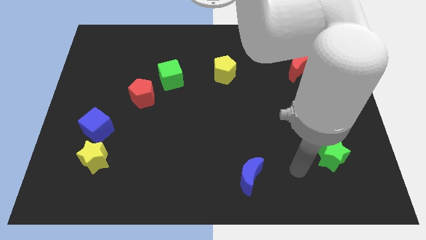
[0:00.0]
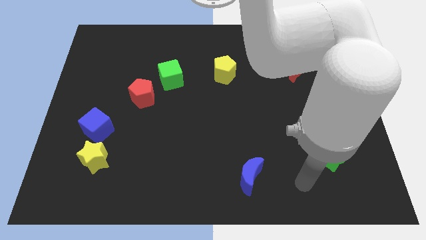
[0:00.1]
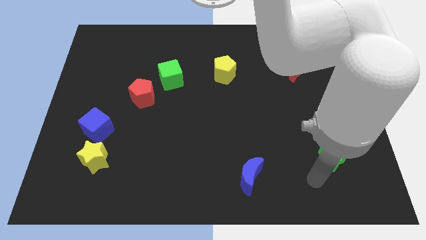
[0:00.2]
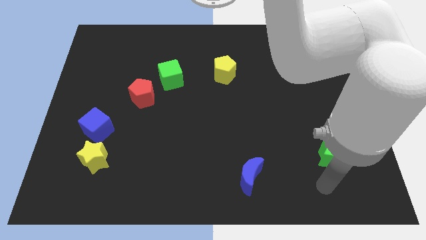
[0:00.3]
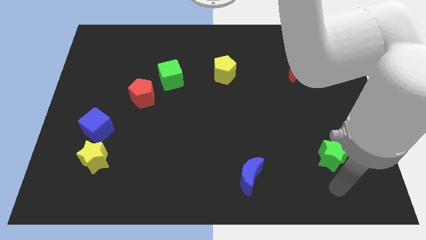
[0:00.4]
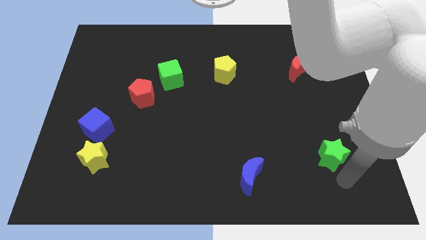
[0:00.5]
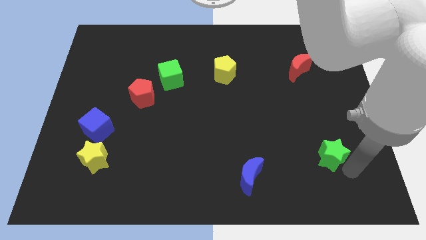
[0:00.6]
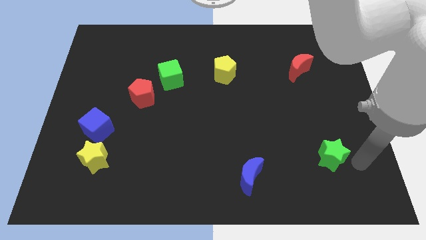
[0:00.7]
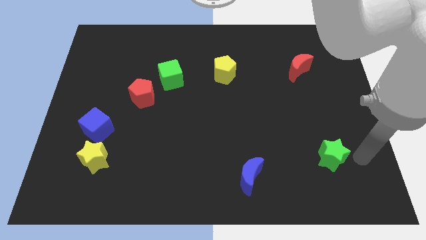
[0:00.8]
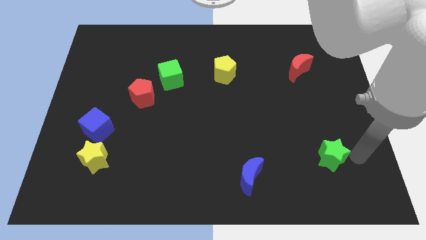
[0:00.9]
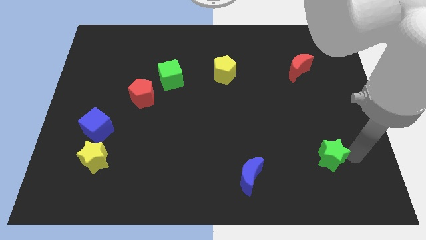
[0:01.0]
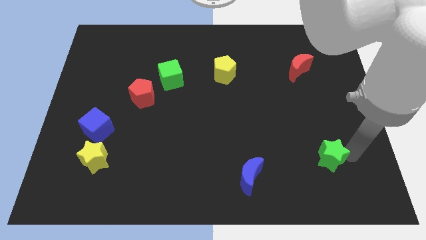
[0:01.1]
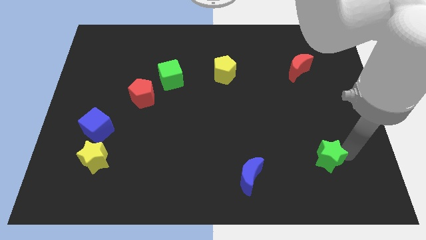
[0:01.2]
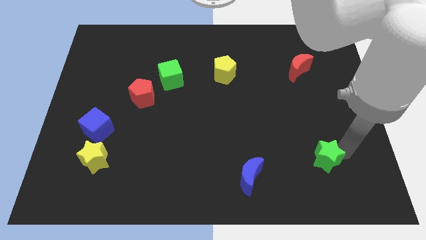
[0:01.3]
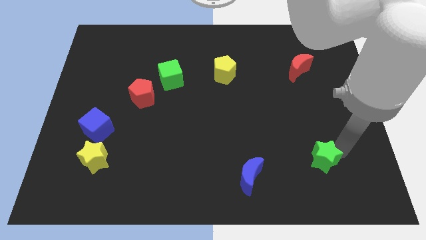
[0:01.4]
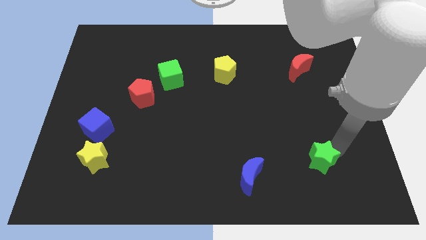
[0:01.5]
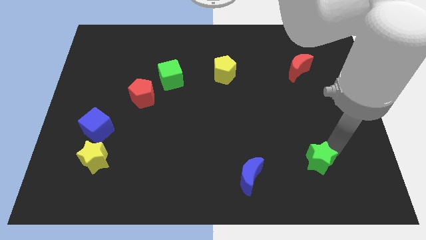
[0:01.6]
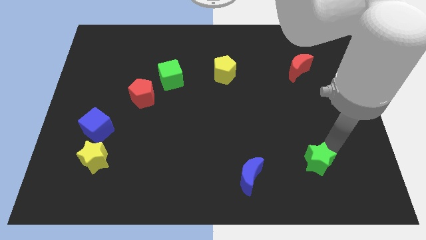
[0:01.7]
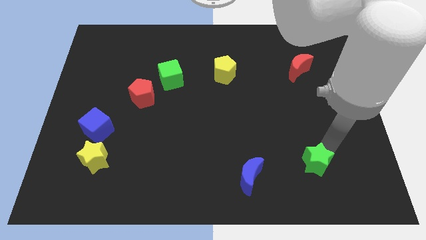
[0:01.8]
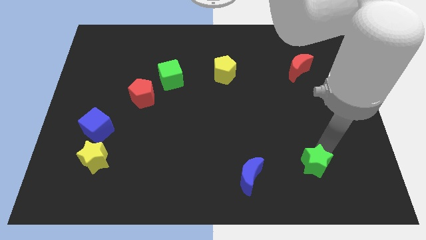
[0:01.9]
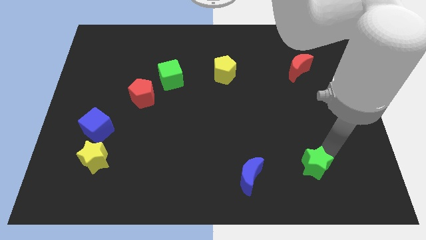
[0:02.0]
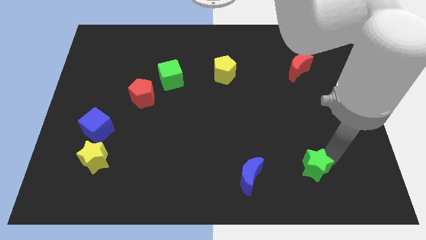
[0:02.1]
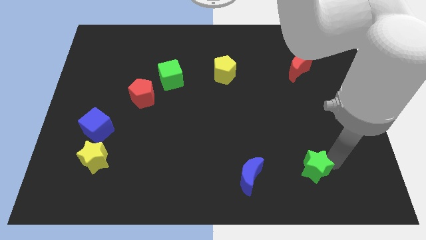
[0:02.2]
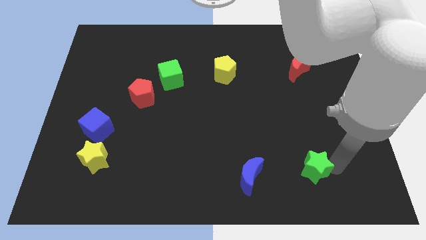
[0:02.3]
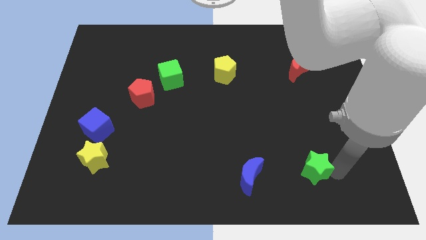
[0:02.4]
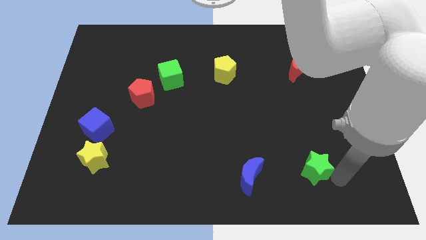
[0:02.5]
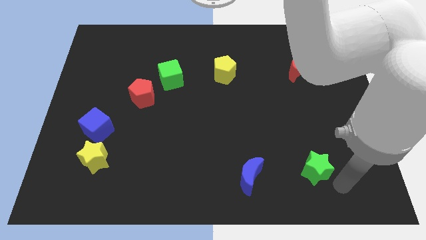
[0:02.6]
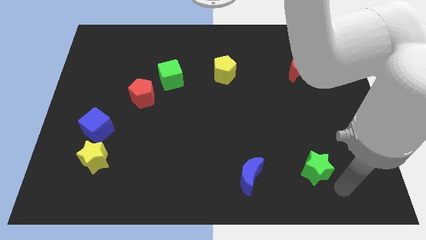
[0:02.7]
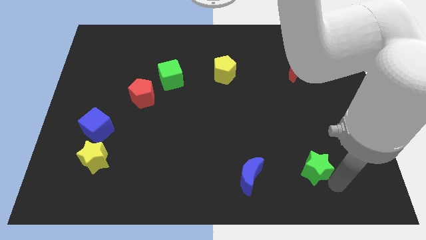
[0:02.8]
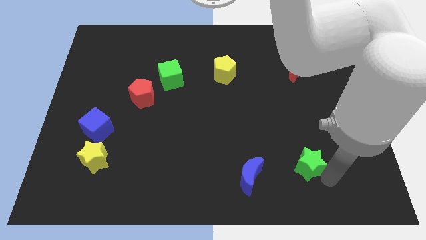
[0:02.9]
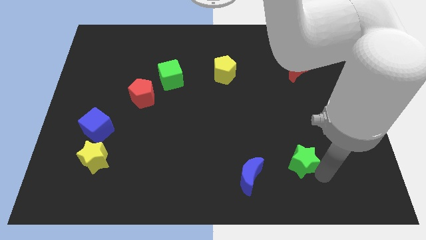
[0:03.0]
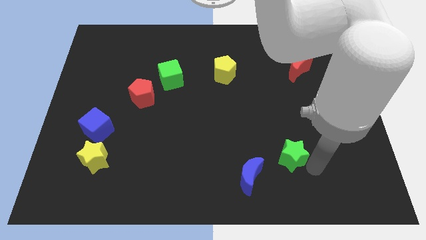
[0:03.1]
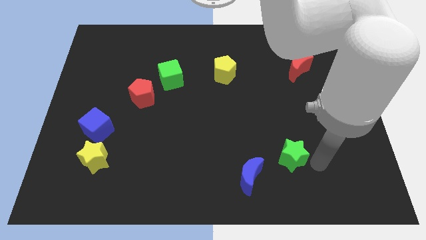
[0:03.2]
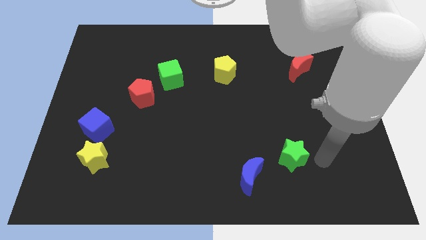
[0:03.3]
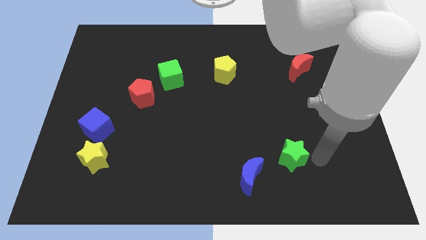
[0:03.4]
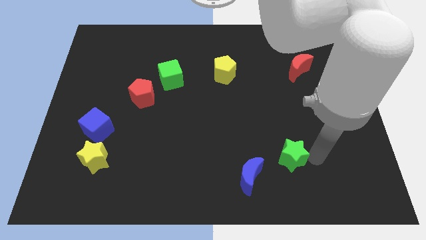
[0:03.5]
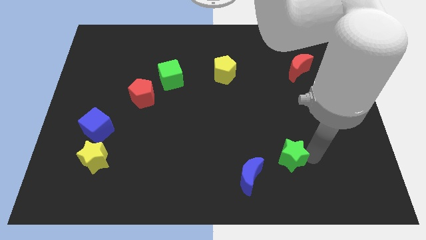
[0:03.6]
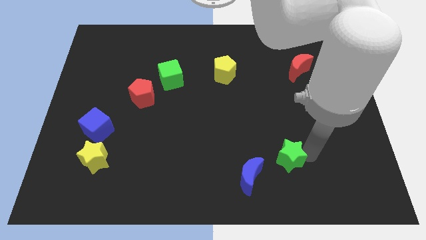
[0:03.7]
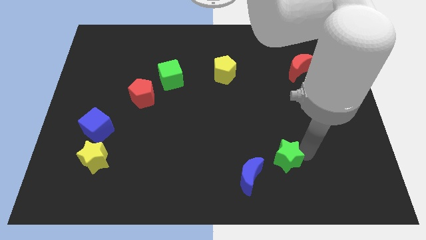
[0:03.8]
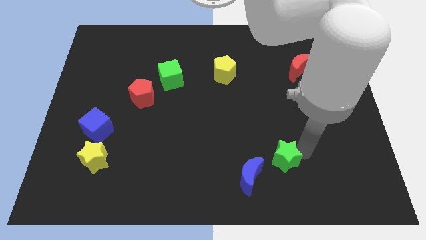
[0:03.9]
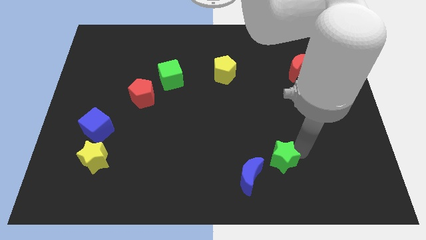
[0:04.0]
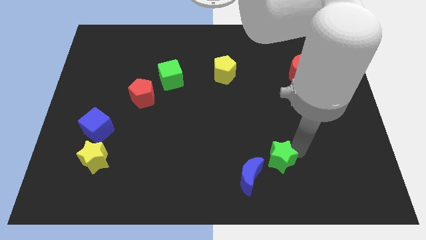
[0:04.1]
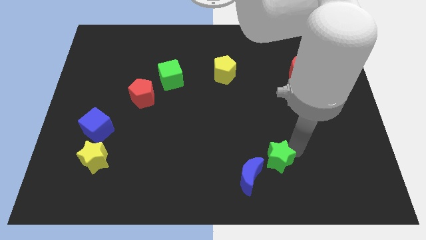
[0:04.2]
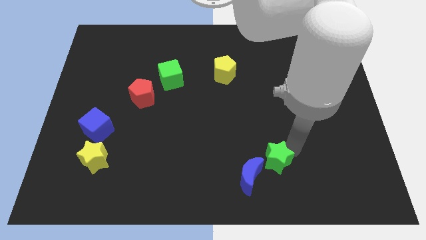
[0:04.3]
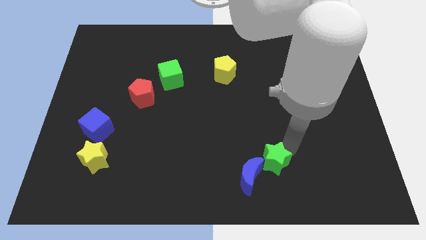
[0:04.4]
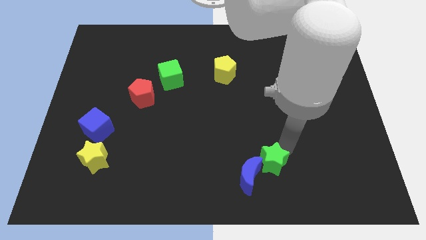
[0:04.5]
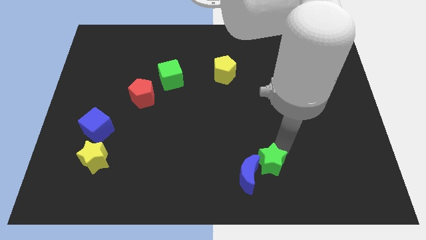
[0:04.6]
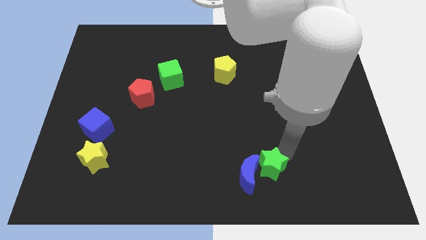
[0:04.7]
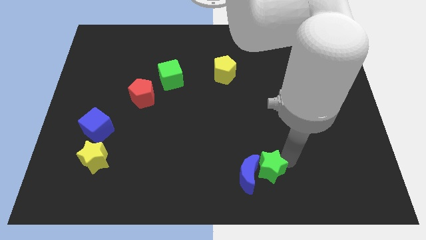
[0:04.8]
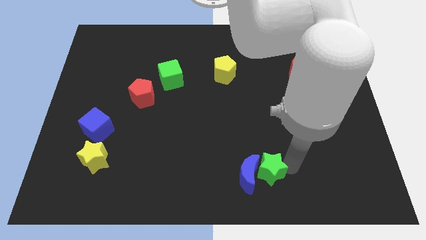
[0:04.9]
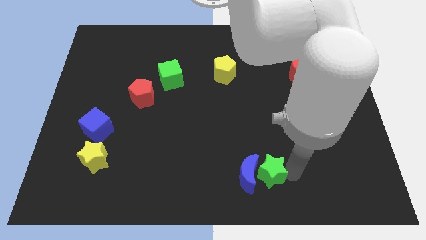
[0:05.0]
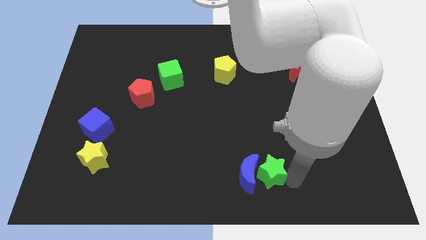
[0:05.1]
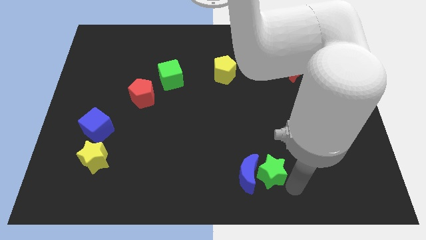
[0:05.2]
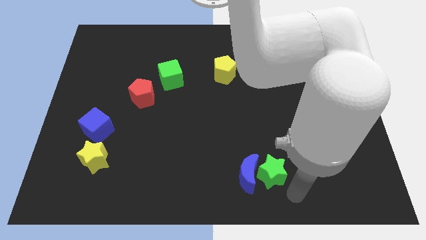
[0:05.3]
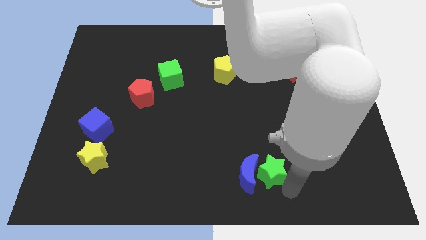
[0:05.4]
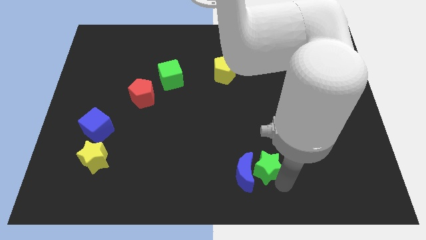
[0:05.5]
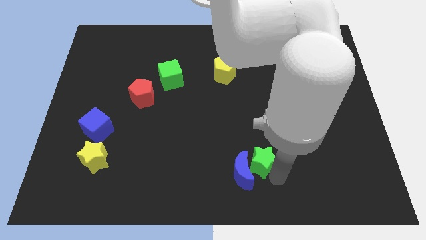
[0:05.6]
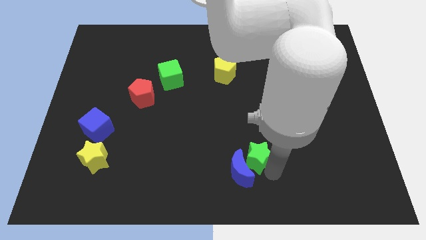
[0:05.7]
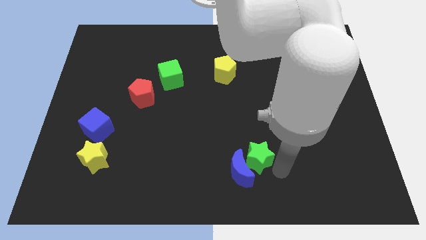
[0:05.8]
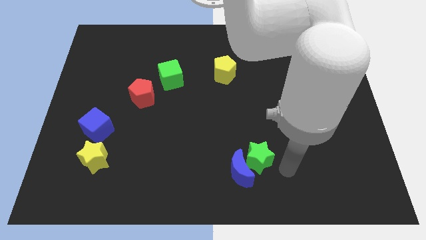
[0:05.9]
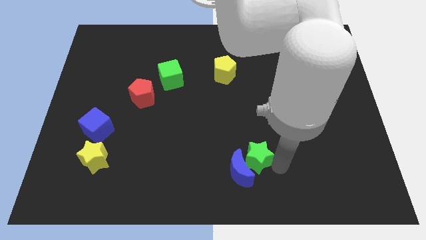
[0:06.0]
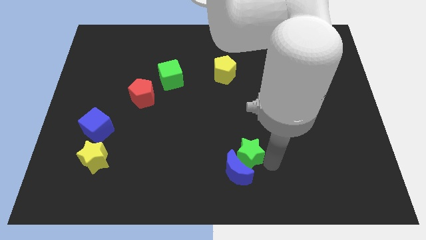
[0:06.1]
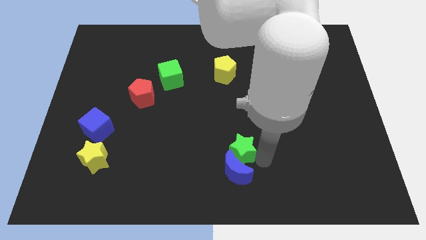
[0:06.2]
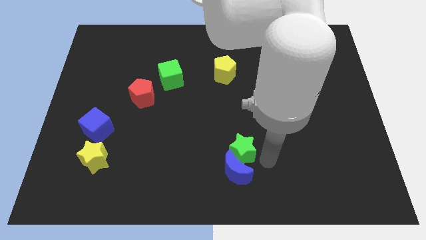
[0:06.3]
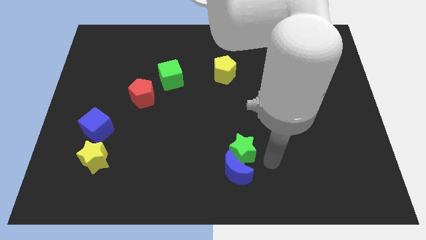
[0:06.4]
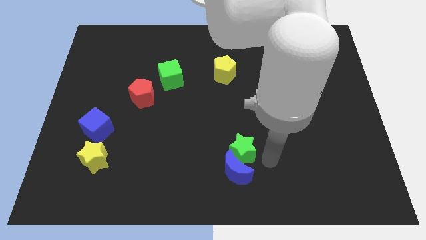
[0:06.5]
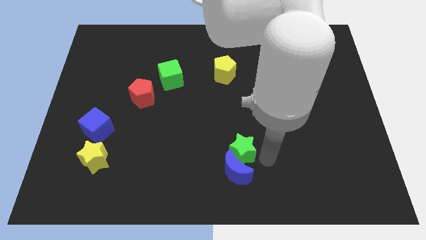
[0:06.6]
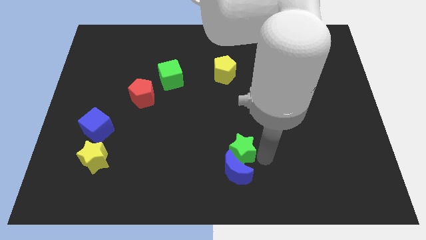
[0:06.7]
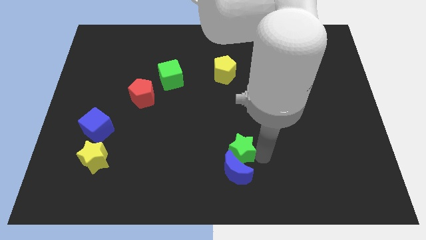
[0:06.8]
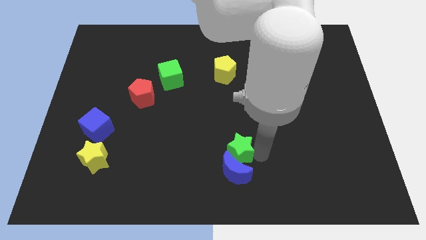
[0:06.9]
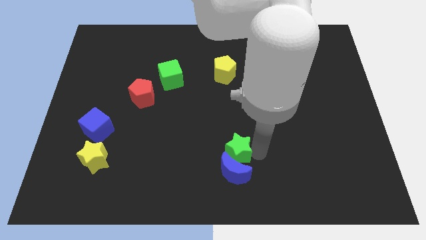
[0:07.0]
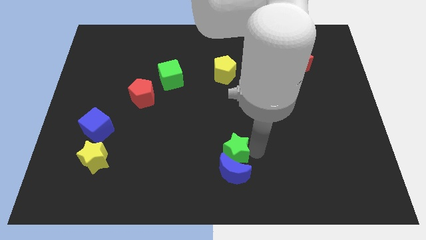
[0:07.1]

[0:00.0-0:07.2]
push the green star to the left

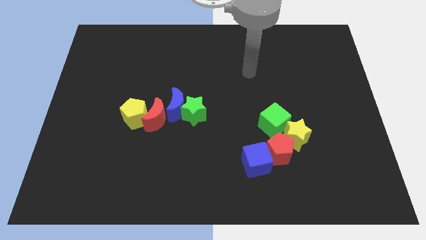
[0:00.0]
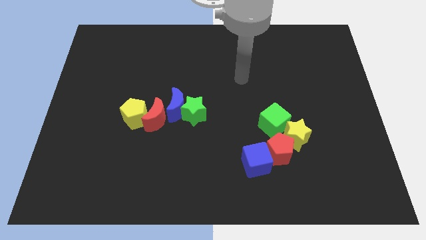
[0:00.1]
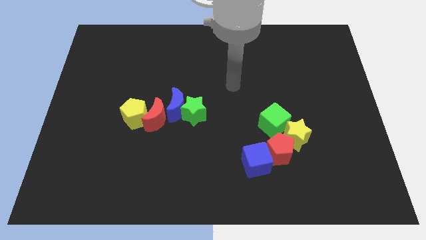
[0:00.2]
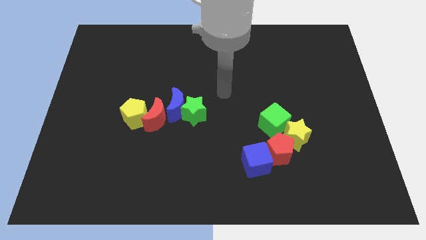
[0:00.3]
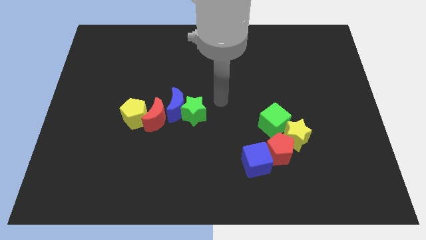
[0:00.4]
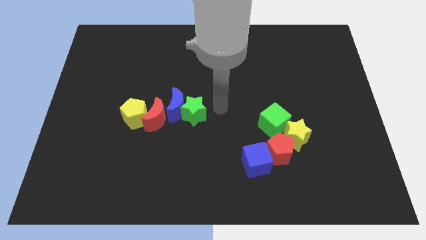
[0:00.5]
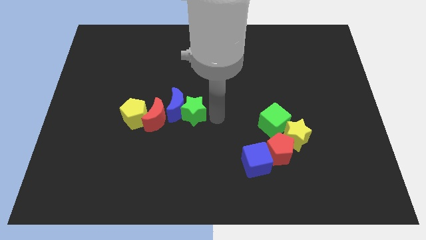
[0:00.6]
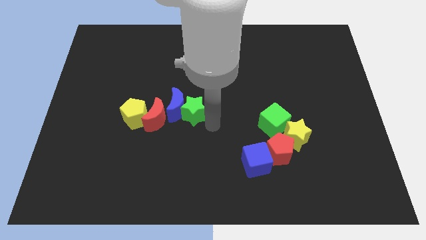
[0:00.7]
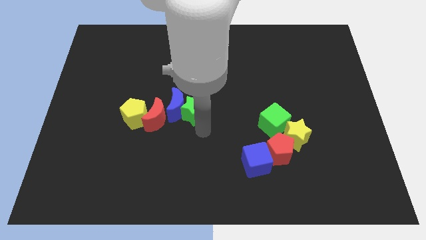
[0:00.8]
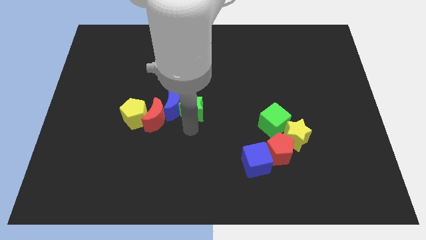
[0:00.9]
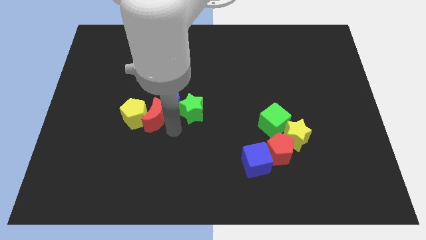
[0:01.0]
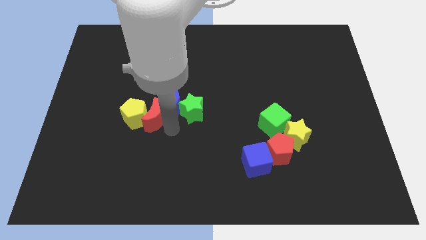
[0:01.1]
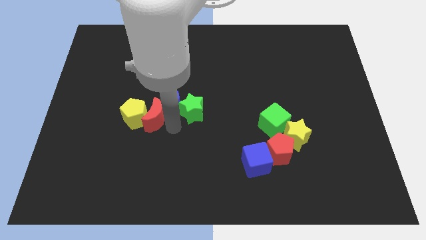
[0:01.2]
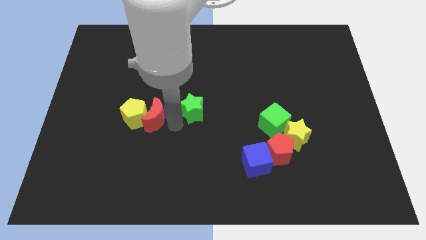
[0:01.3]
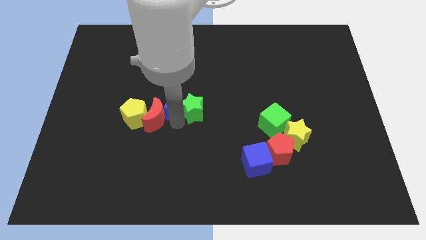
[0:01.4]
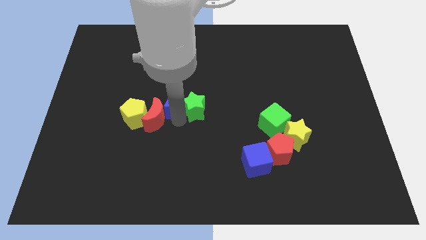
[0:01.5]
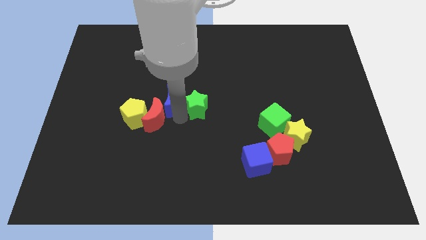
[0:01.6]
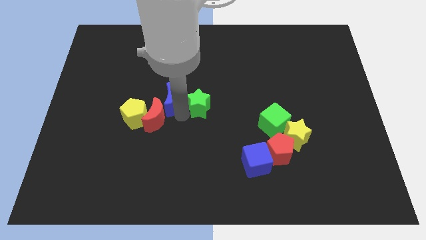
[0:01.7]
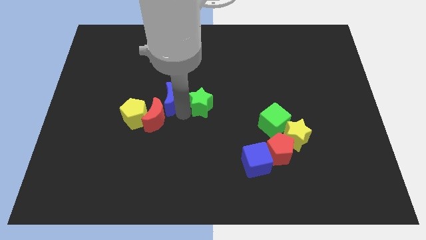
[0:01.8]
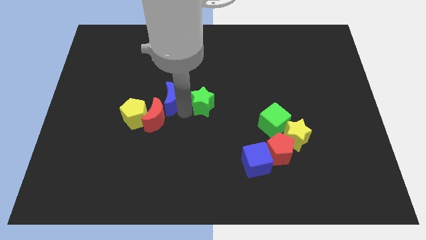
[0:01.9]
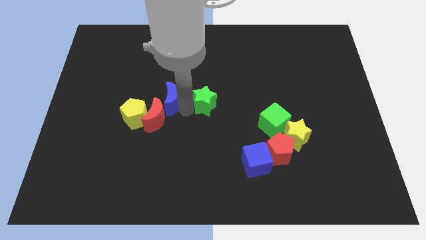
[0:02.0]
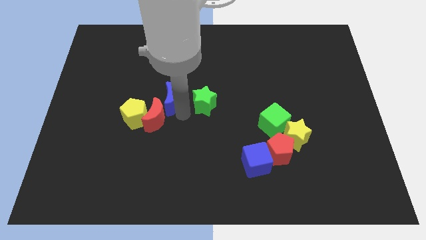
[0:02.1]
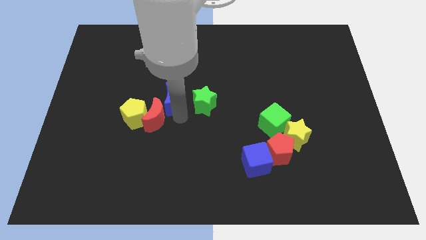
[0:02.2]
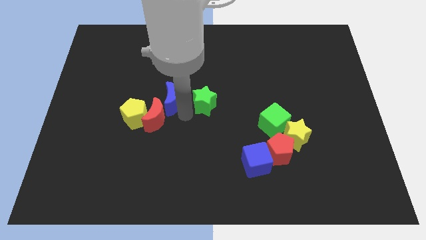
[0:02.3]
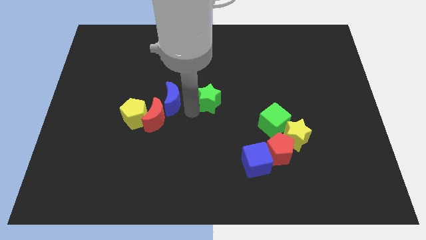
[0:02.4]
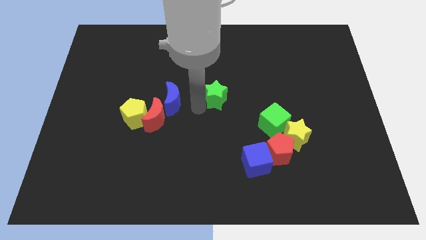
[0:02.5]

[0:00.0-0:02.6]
slightly slide the green star upwards and right
